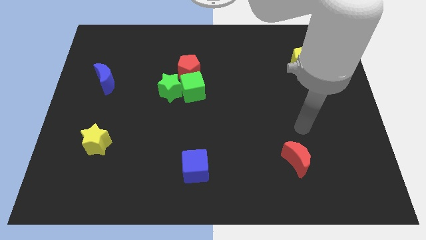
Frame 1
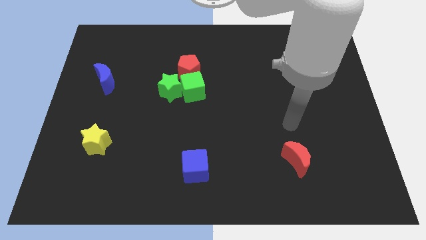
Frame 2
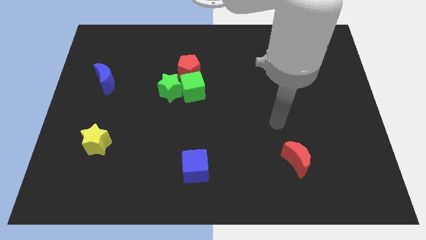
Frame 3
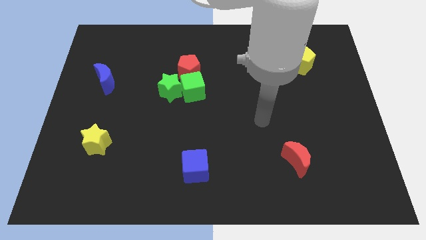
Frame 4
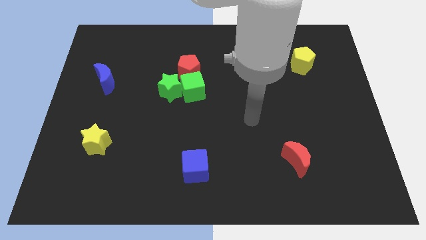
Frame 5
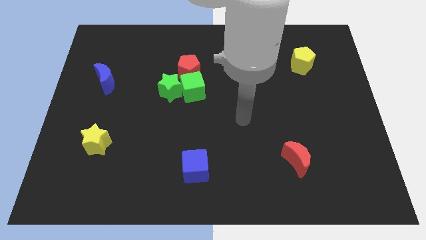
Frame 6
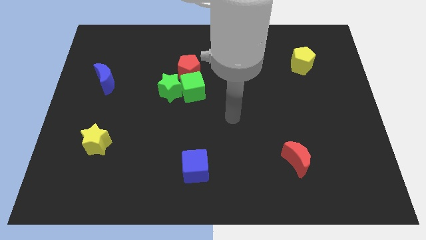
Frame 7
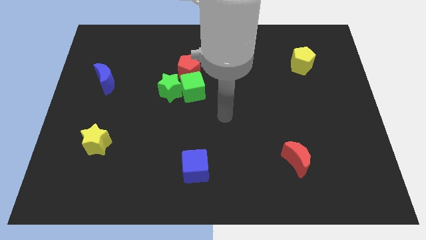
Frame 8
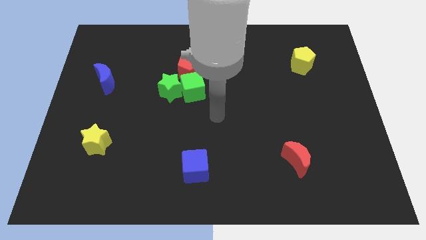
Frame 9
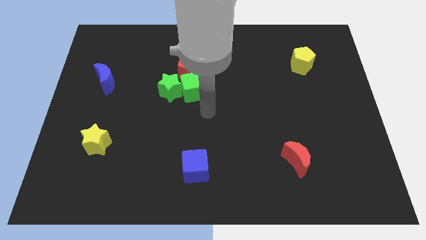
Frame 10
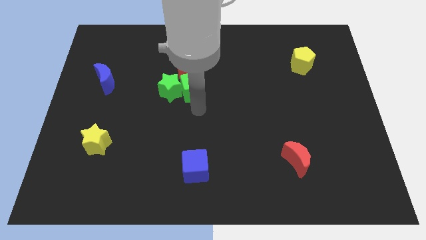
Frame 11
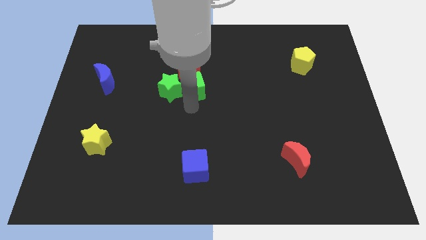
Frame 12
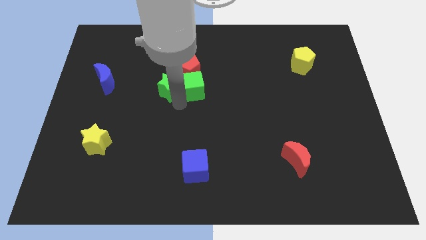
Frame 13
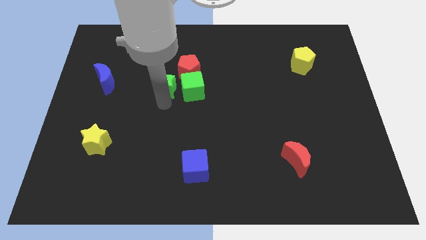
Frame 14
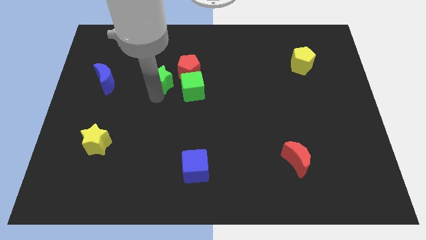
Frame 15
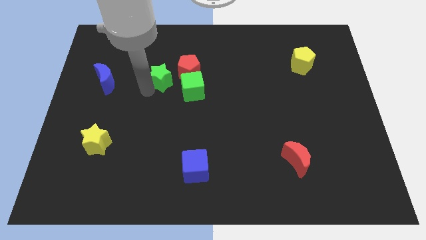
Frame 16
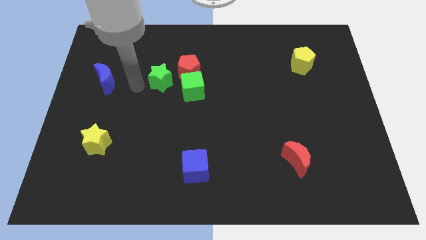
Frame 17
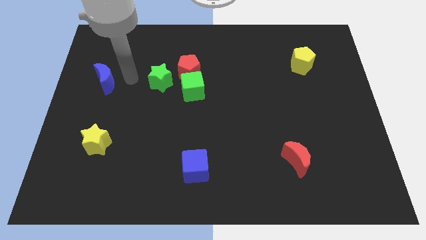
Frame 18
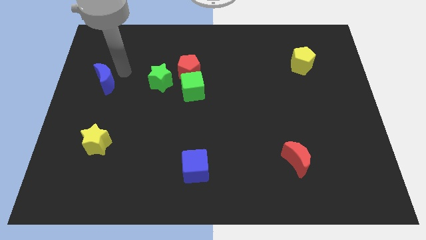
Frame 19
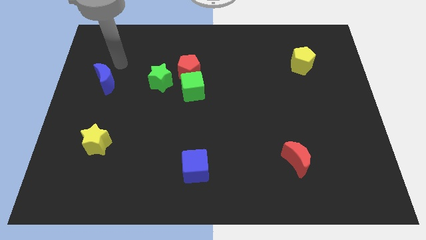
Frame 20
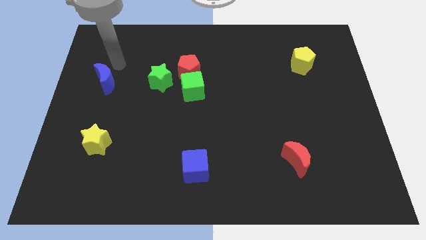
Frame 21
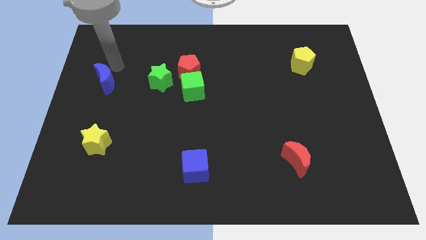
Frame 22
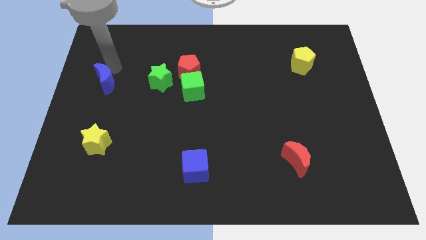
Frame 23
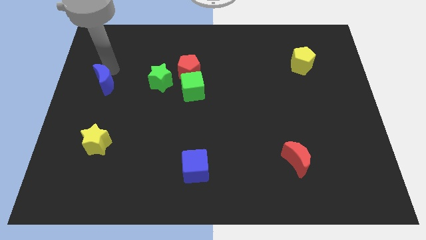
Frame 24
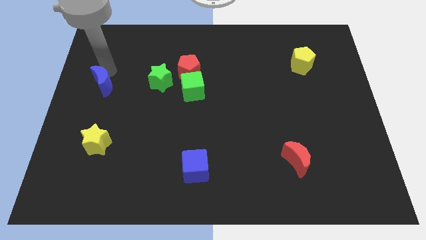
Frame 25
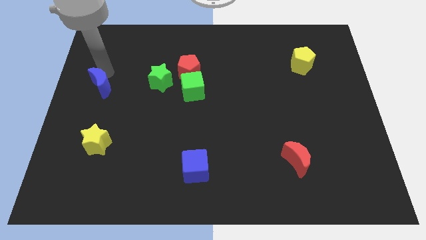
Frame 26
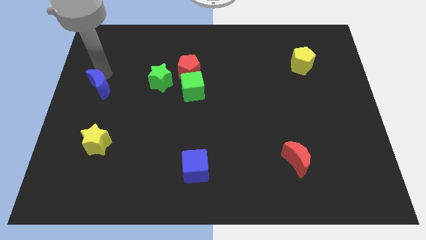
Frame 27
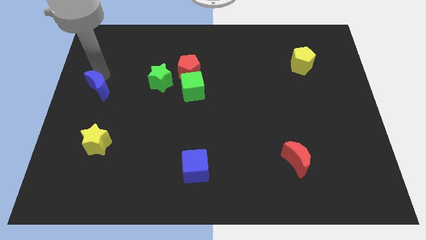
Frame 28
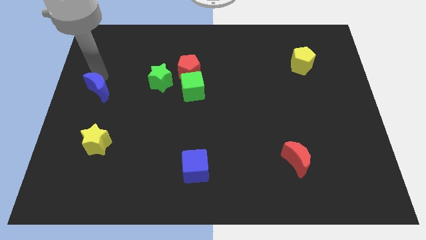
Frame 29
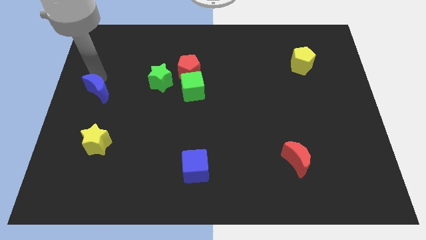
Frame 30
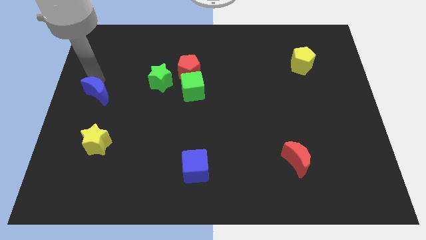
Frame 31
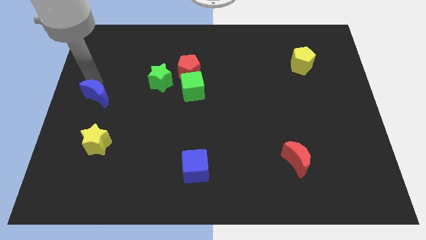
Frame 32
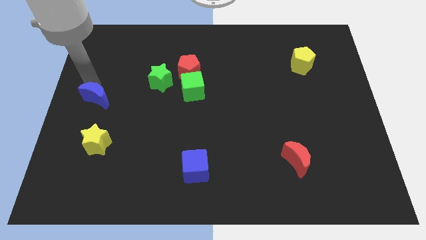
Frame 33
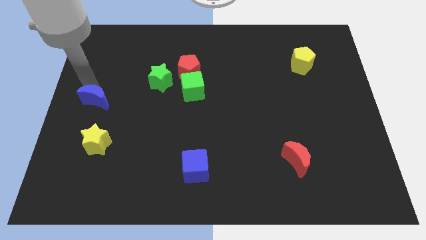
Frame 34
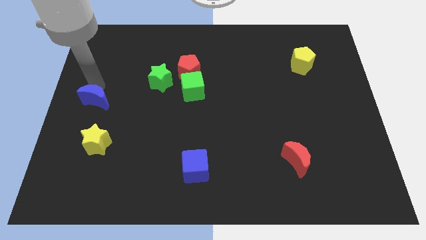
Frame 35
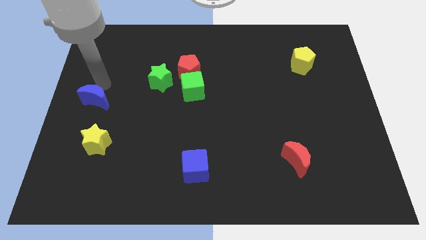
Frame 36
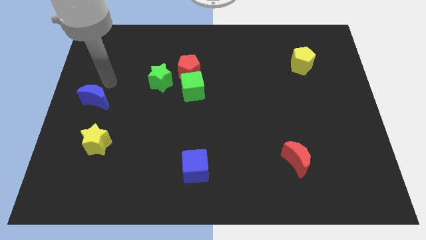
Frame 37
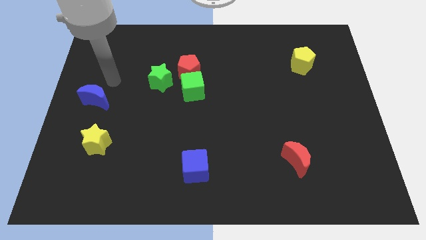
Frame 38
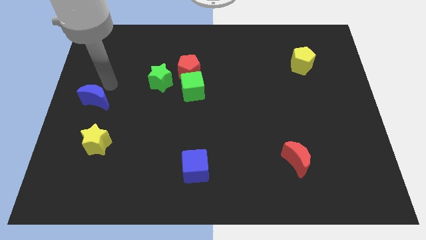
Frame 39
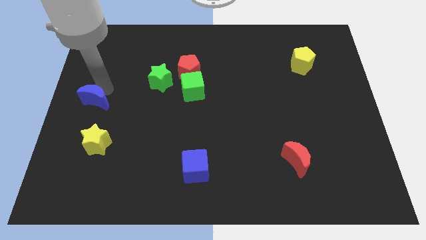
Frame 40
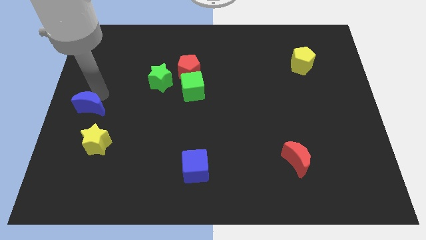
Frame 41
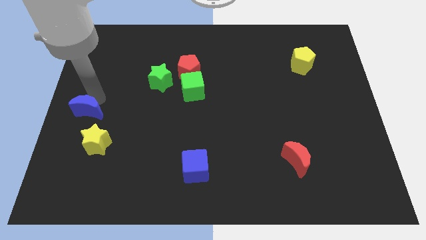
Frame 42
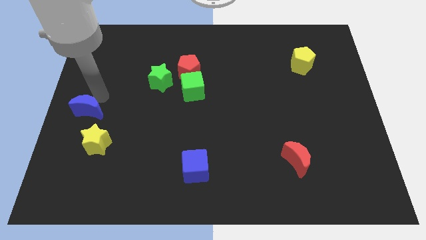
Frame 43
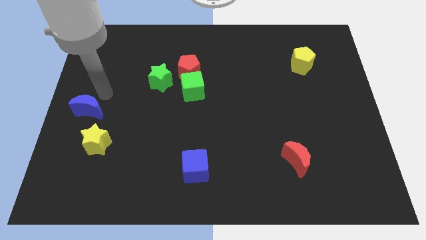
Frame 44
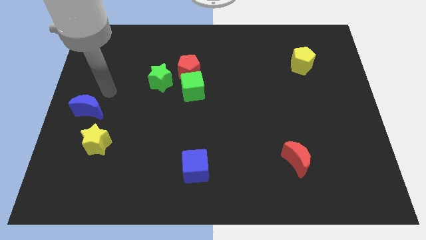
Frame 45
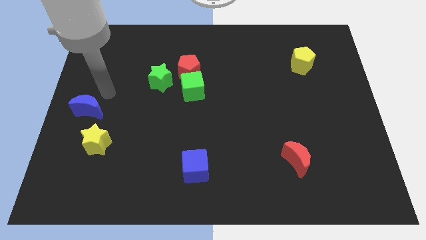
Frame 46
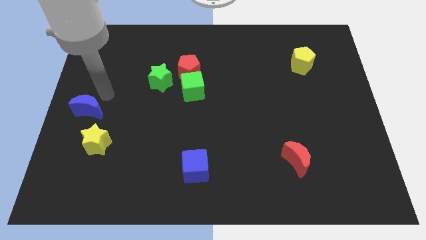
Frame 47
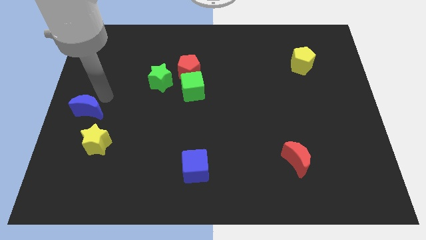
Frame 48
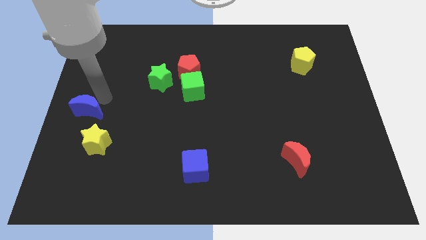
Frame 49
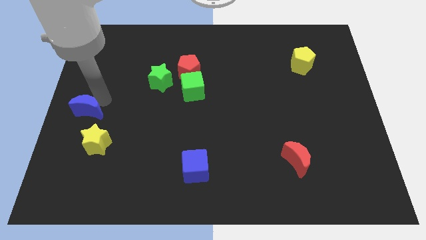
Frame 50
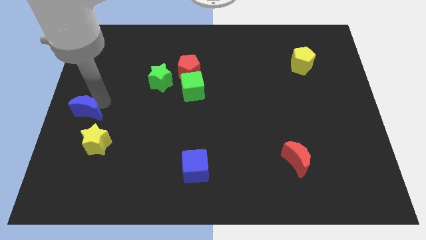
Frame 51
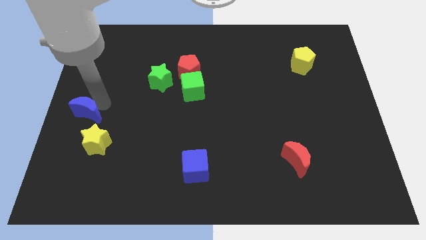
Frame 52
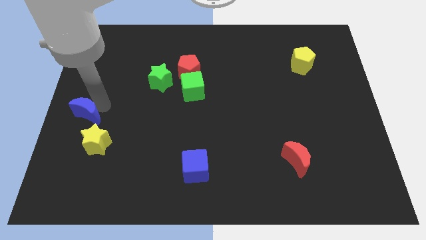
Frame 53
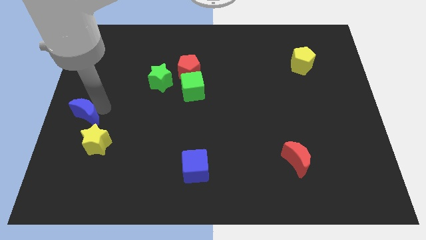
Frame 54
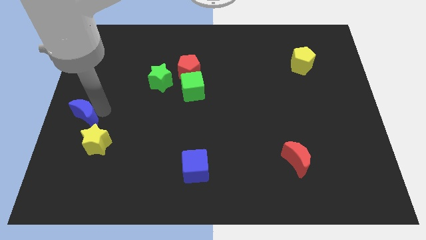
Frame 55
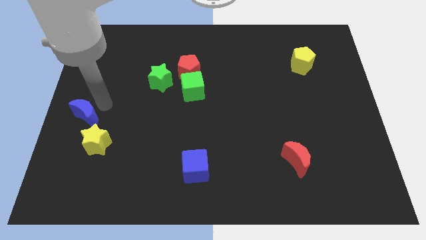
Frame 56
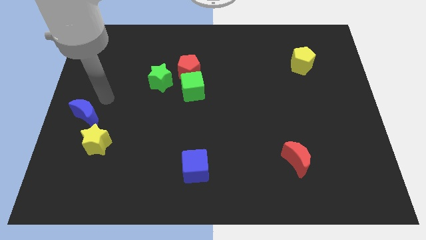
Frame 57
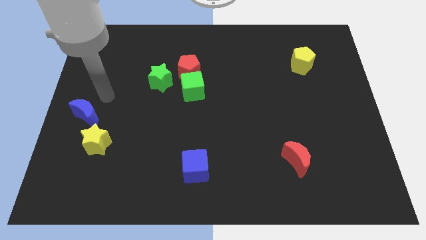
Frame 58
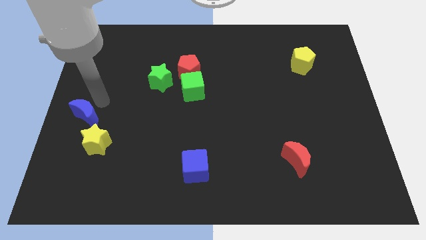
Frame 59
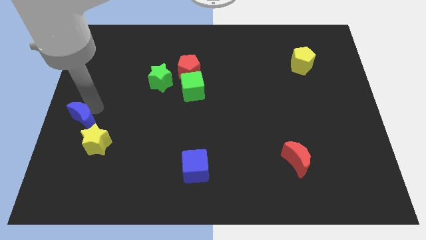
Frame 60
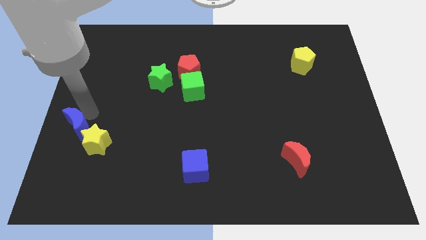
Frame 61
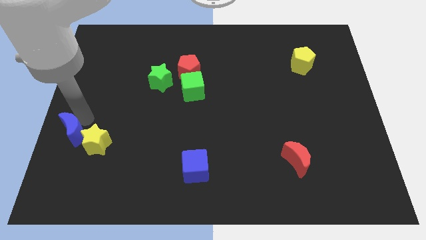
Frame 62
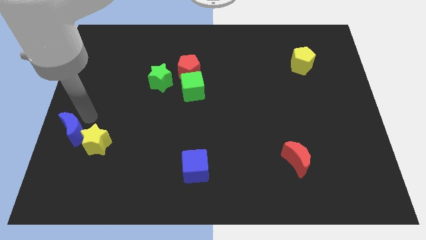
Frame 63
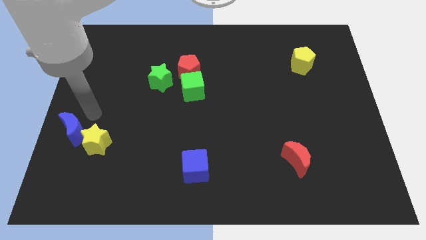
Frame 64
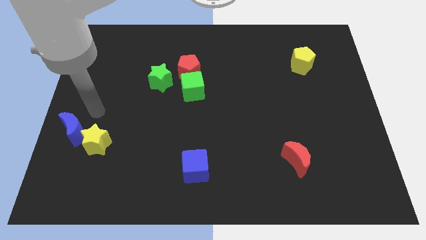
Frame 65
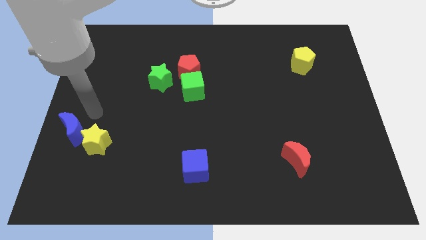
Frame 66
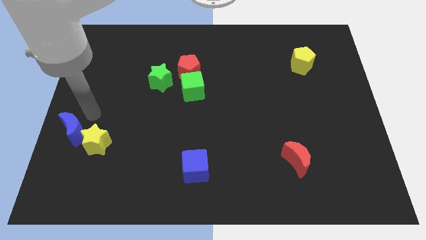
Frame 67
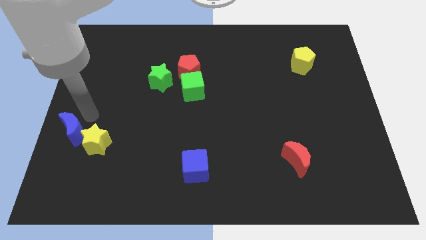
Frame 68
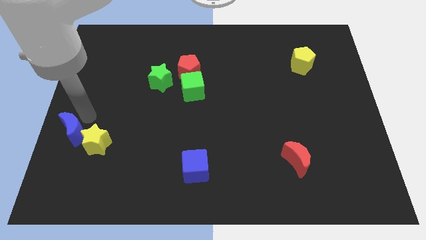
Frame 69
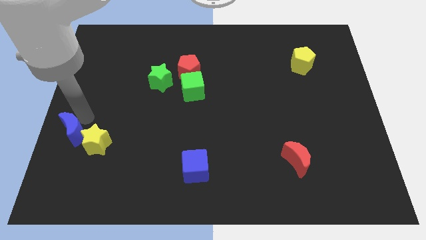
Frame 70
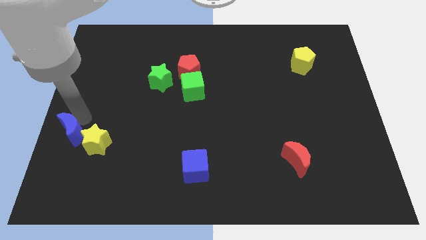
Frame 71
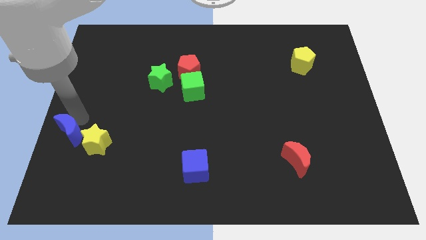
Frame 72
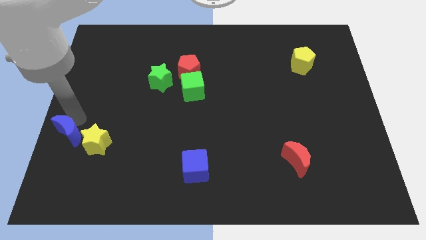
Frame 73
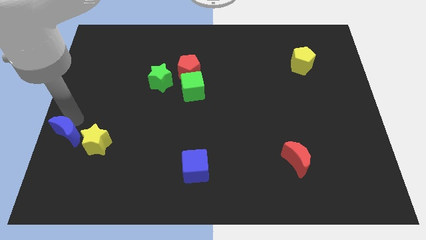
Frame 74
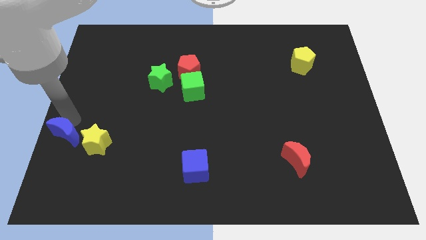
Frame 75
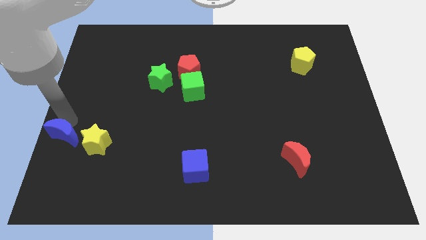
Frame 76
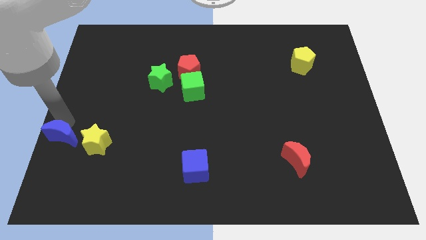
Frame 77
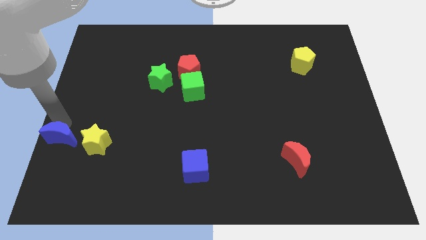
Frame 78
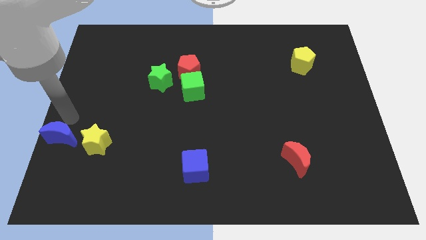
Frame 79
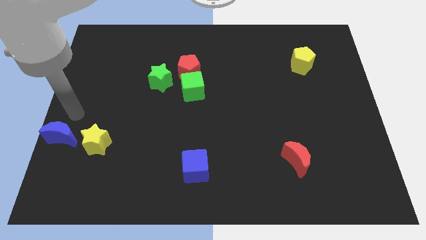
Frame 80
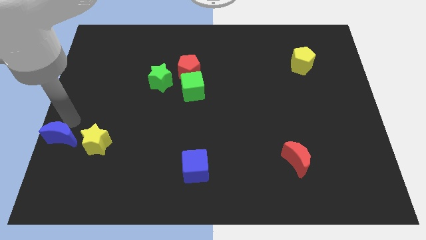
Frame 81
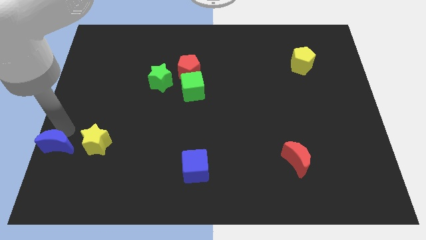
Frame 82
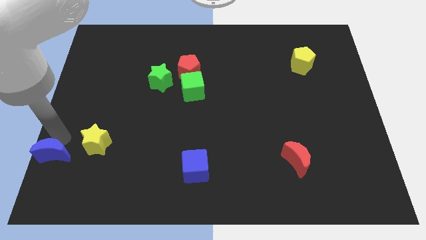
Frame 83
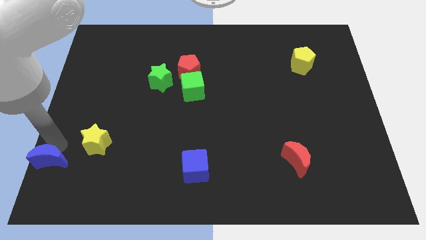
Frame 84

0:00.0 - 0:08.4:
move the blue moon to the bottom left
